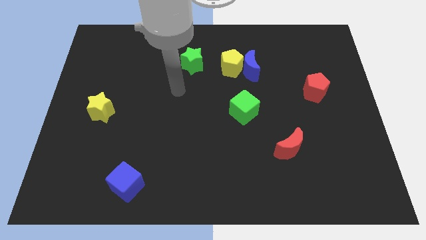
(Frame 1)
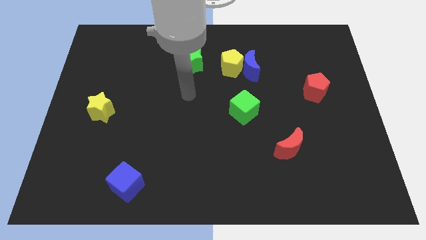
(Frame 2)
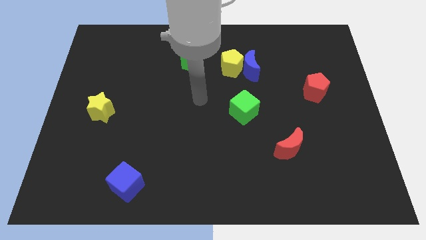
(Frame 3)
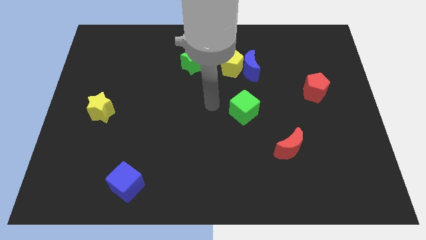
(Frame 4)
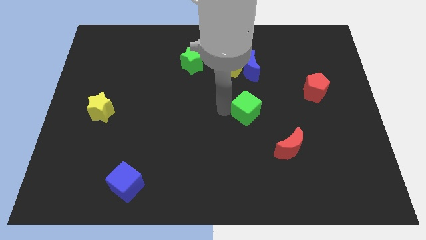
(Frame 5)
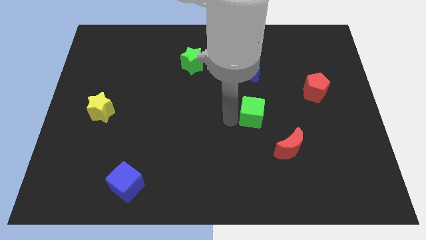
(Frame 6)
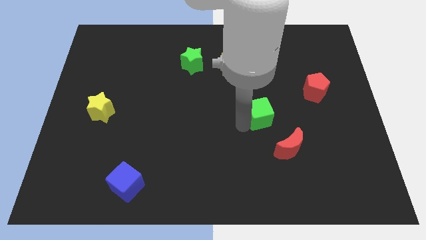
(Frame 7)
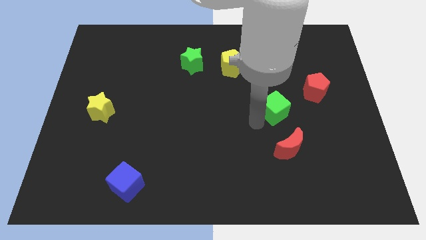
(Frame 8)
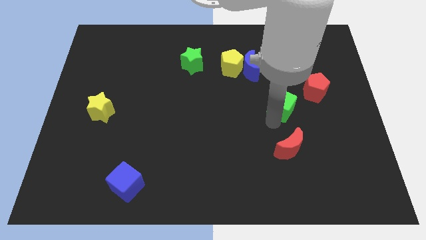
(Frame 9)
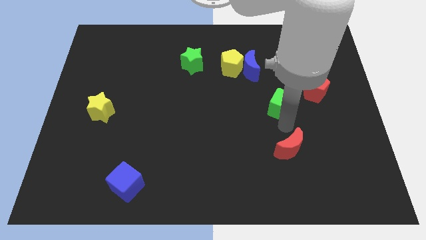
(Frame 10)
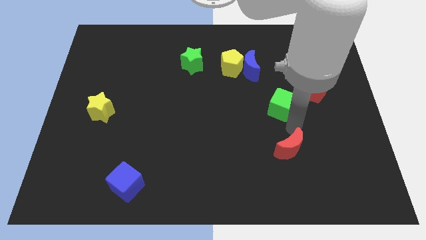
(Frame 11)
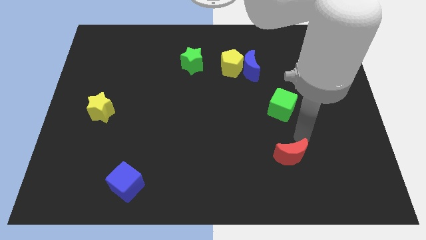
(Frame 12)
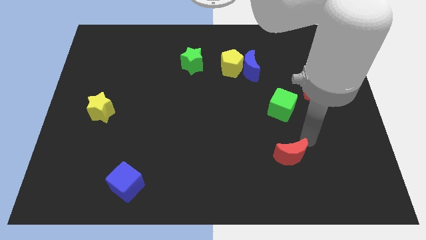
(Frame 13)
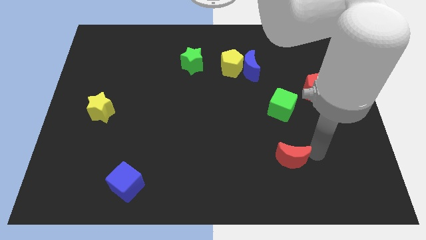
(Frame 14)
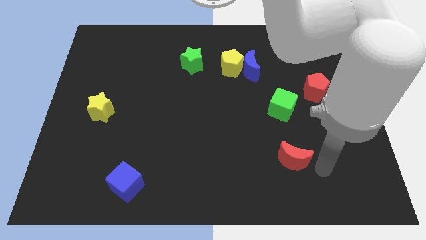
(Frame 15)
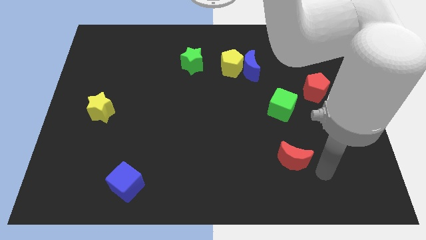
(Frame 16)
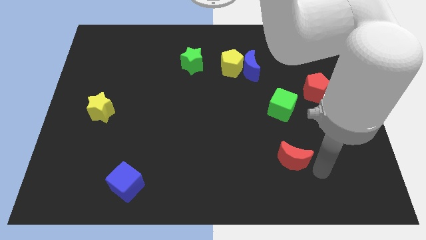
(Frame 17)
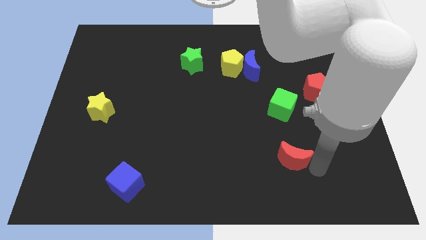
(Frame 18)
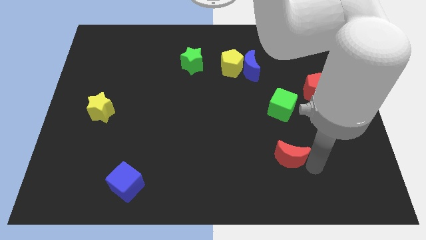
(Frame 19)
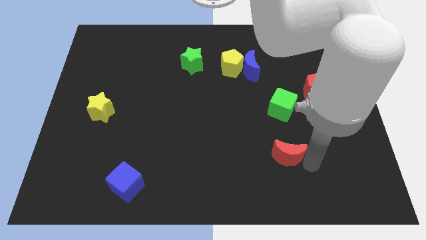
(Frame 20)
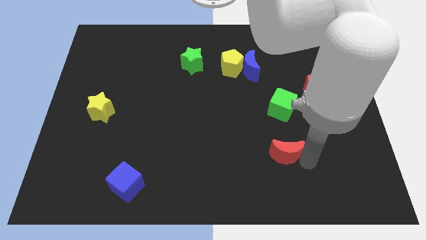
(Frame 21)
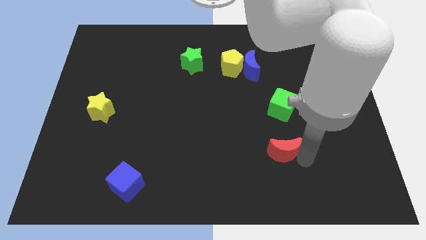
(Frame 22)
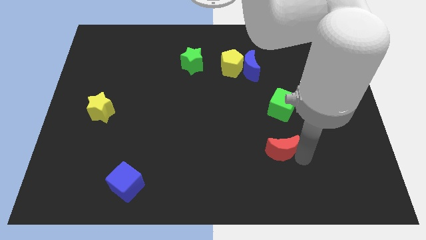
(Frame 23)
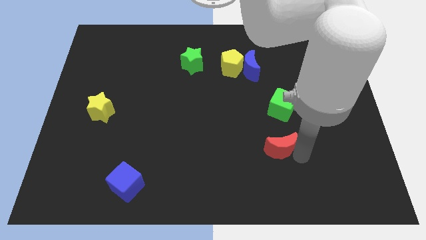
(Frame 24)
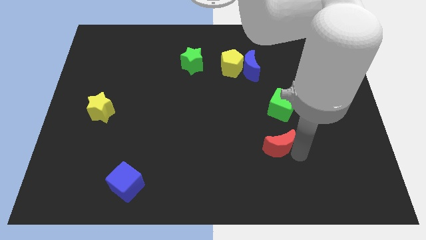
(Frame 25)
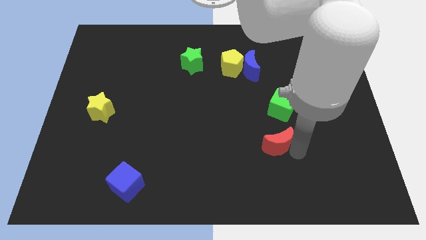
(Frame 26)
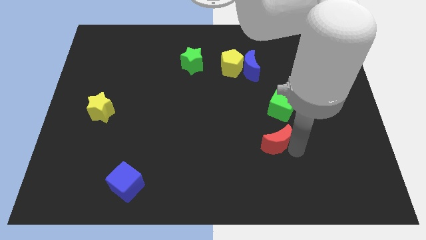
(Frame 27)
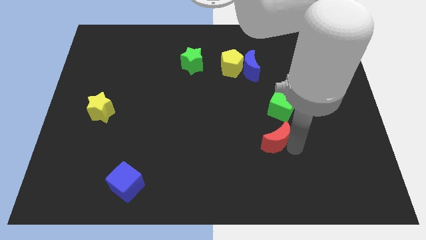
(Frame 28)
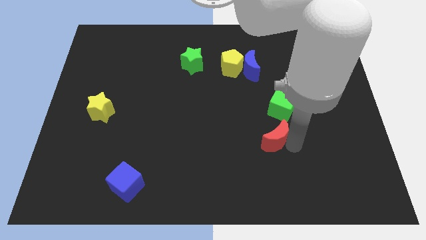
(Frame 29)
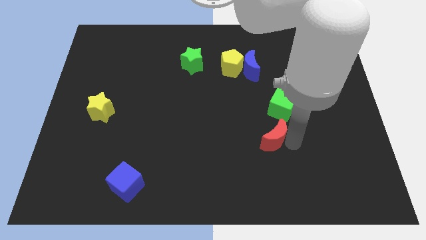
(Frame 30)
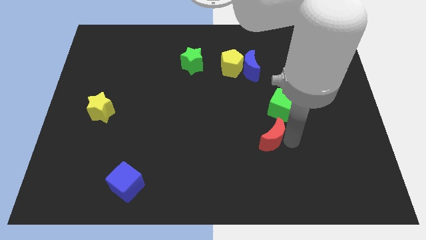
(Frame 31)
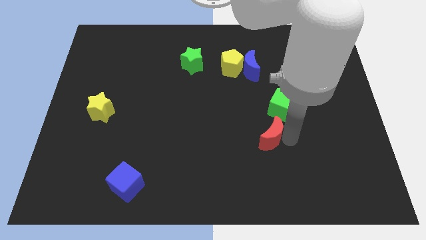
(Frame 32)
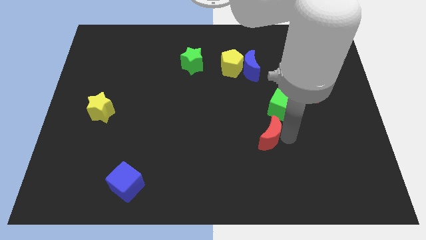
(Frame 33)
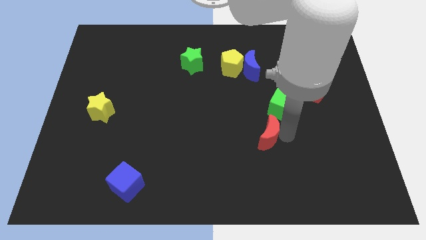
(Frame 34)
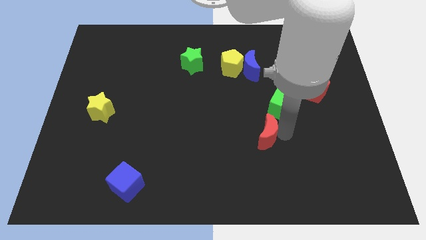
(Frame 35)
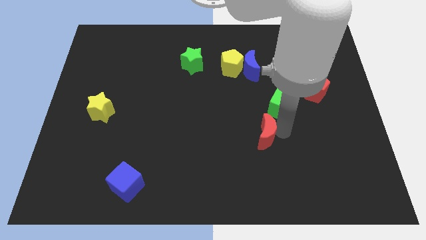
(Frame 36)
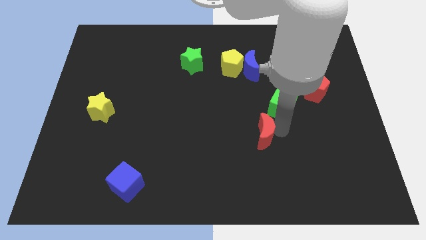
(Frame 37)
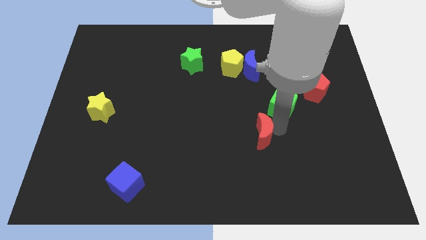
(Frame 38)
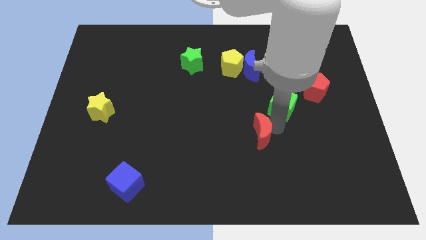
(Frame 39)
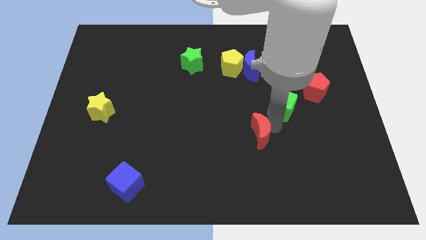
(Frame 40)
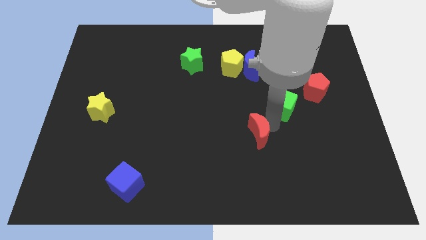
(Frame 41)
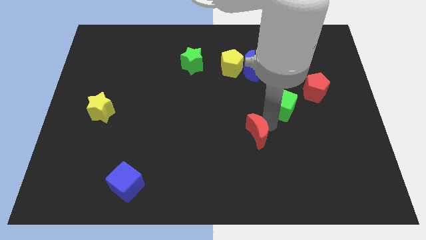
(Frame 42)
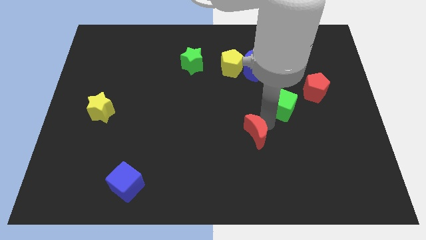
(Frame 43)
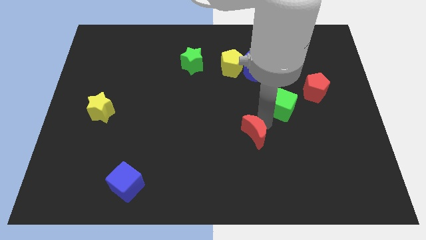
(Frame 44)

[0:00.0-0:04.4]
move the red moon to the left slightly

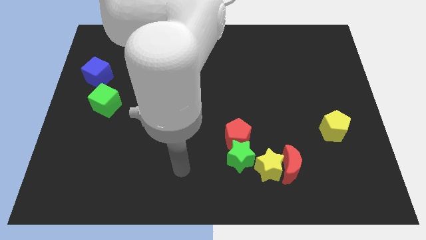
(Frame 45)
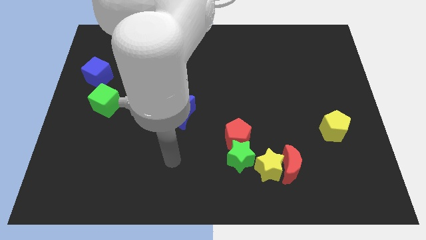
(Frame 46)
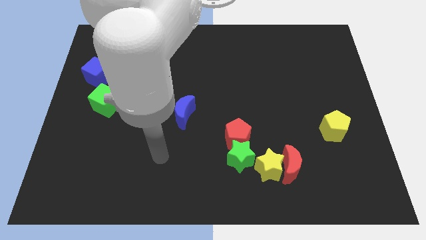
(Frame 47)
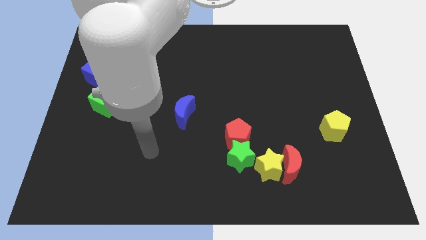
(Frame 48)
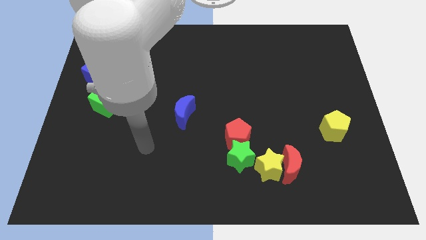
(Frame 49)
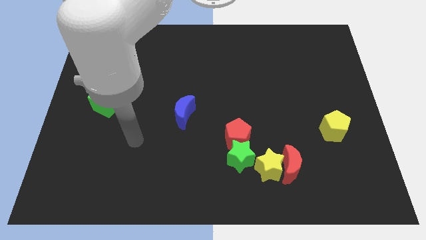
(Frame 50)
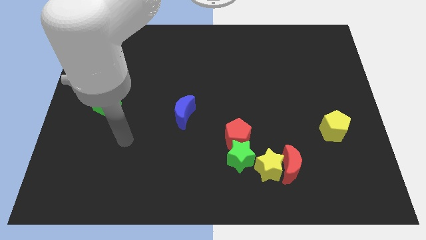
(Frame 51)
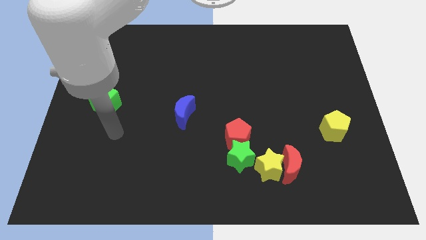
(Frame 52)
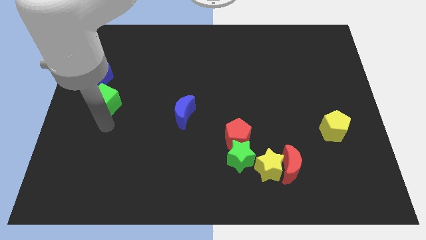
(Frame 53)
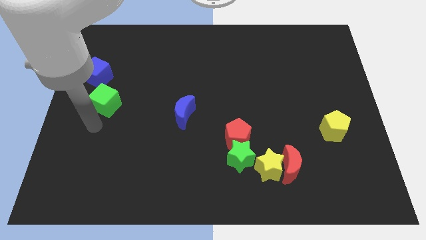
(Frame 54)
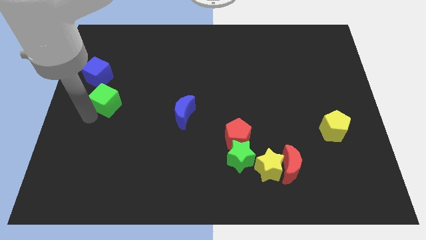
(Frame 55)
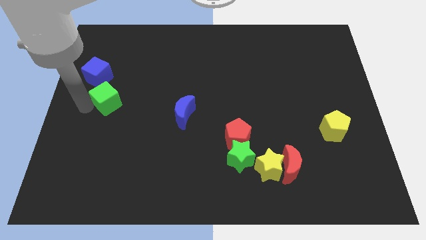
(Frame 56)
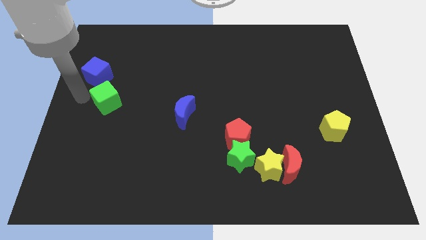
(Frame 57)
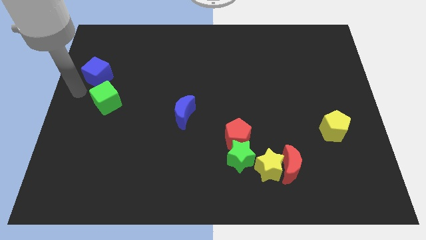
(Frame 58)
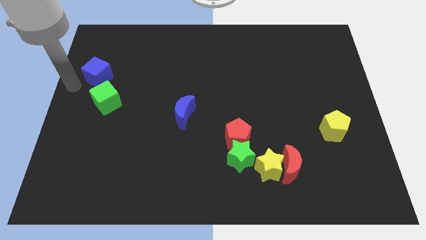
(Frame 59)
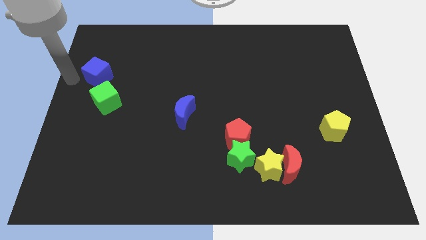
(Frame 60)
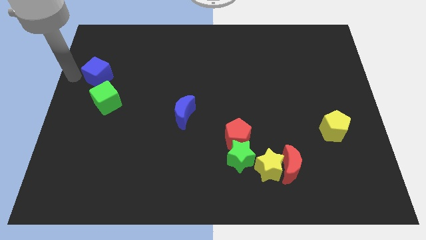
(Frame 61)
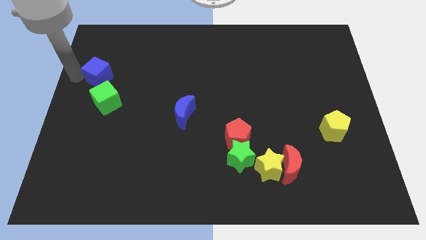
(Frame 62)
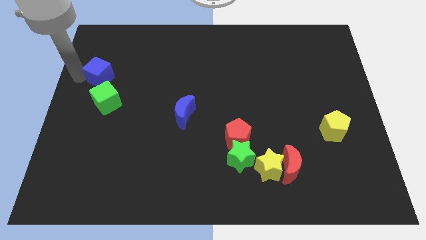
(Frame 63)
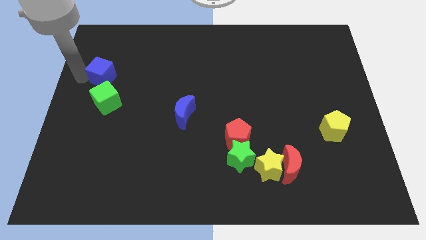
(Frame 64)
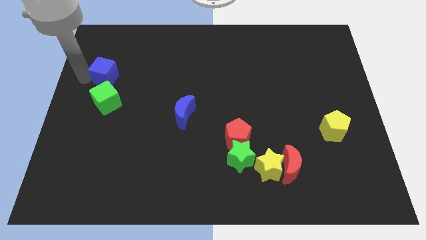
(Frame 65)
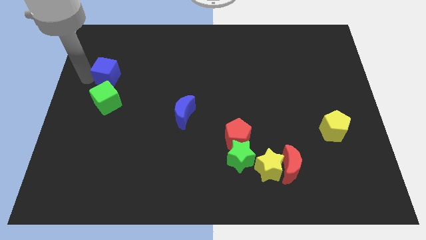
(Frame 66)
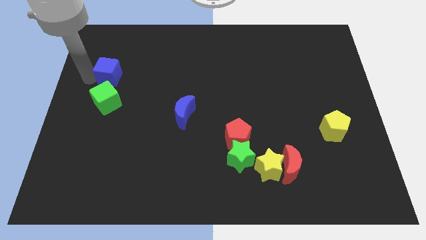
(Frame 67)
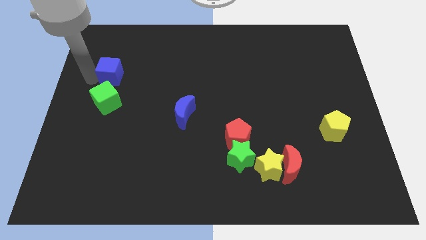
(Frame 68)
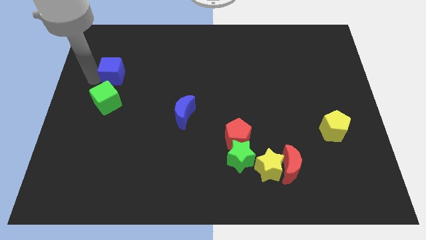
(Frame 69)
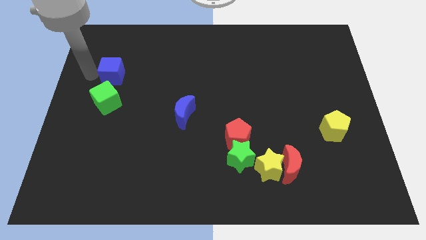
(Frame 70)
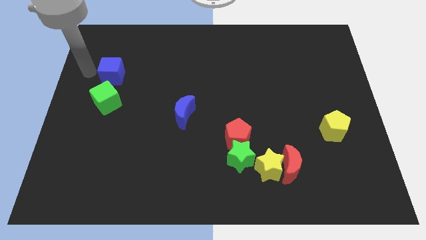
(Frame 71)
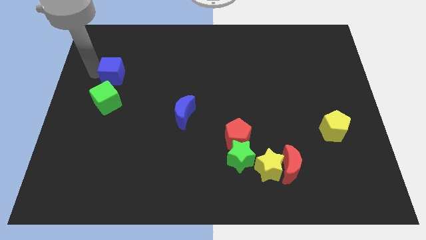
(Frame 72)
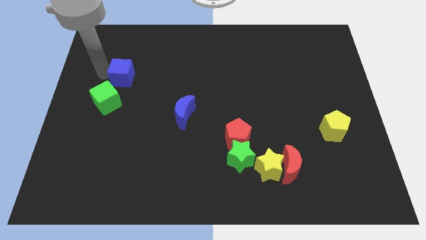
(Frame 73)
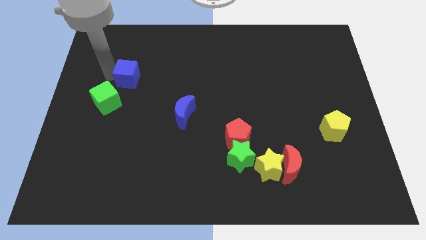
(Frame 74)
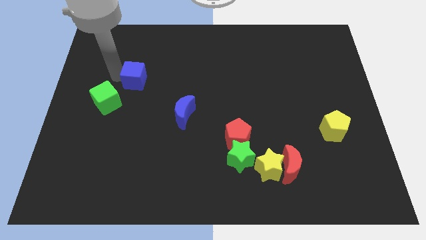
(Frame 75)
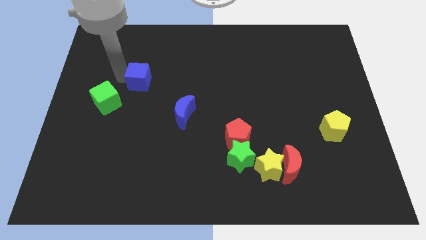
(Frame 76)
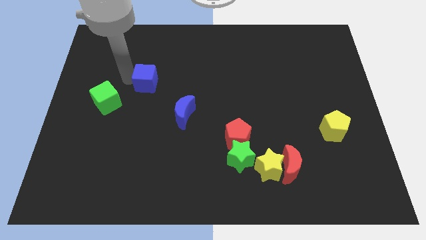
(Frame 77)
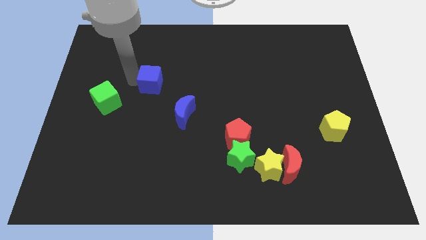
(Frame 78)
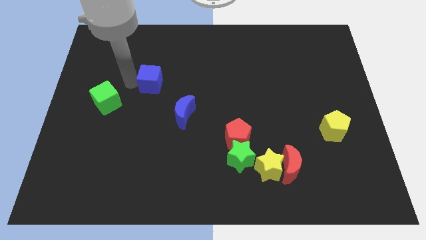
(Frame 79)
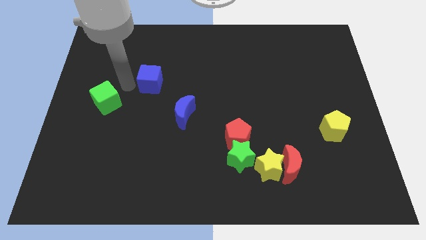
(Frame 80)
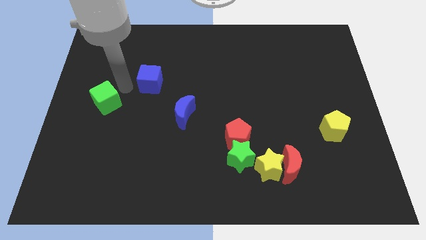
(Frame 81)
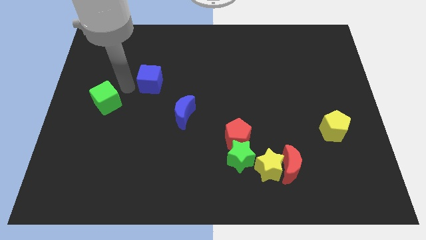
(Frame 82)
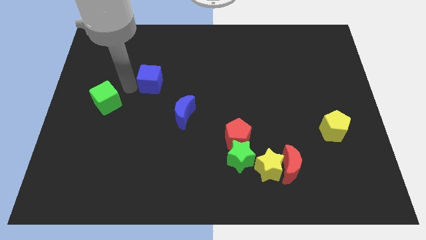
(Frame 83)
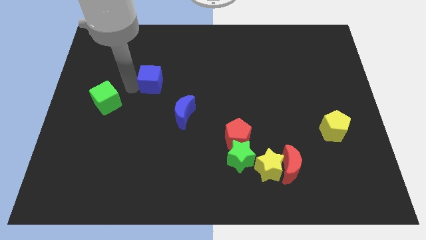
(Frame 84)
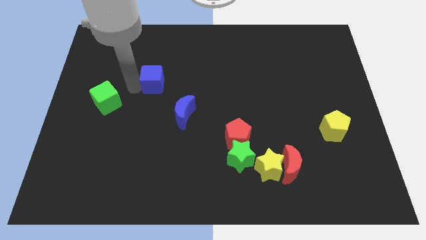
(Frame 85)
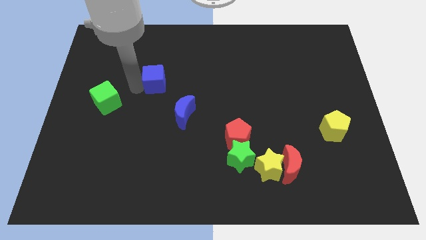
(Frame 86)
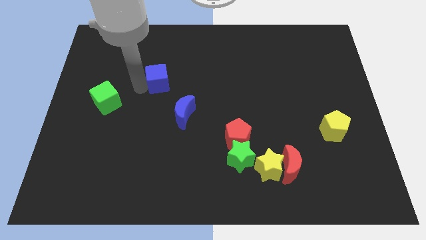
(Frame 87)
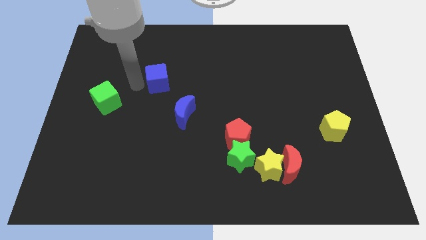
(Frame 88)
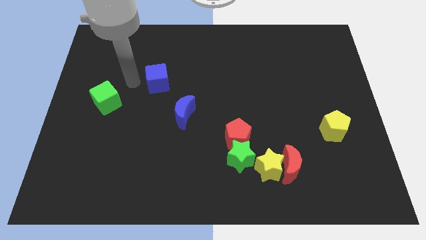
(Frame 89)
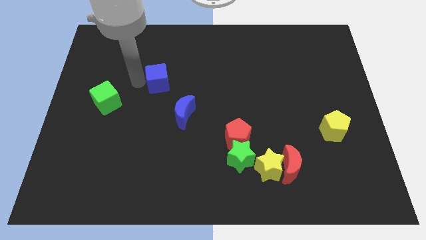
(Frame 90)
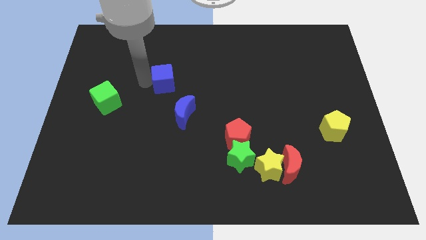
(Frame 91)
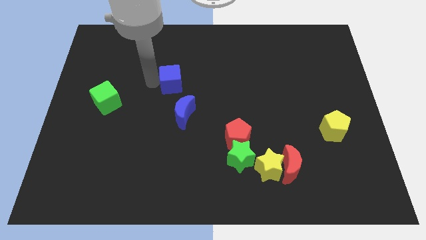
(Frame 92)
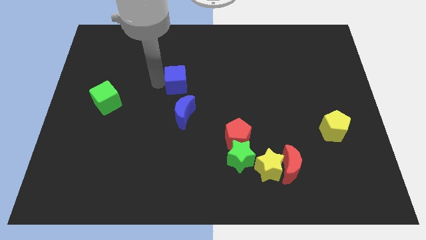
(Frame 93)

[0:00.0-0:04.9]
push the blue cube to the right
